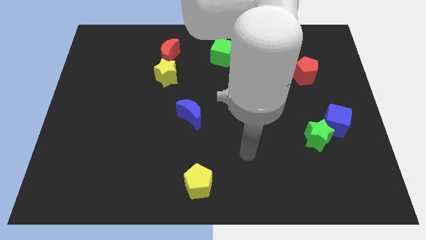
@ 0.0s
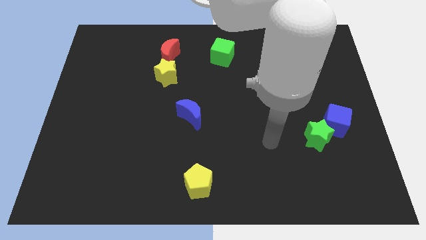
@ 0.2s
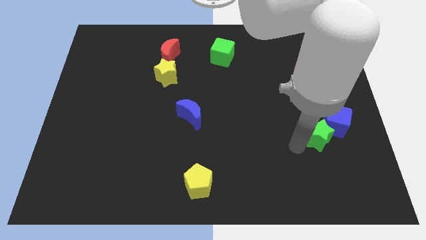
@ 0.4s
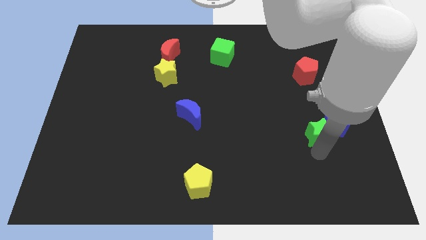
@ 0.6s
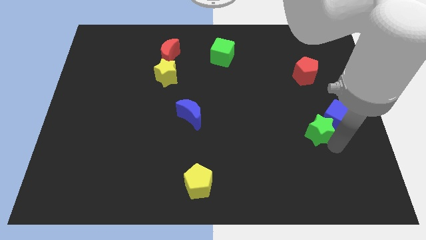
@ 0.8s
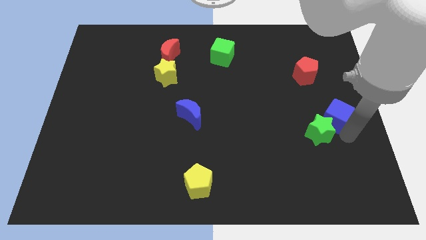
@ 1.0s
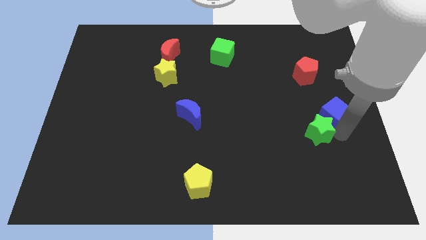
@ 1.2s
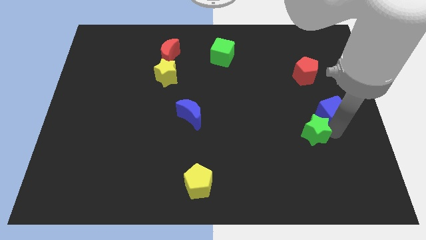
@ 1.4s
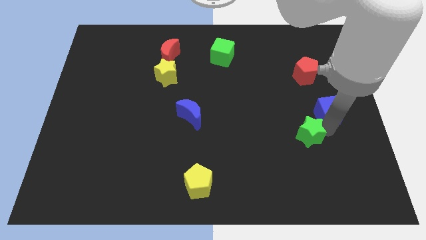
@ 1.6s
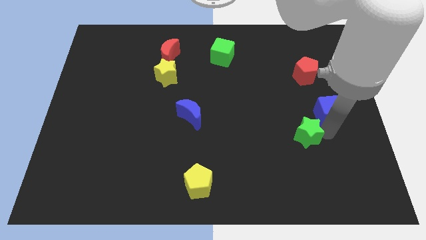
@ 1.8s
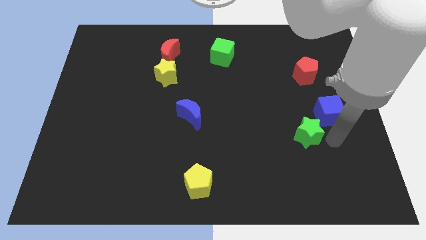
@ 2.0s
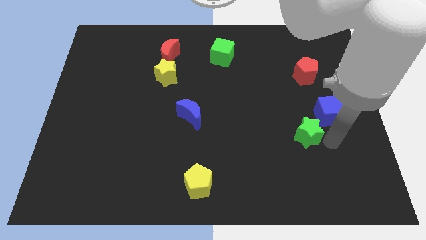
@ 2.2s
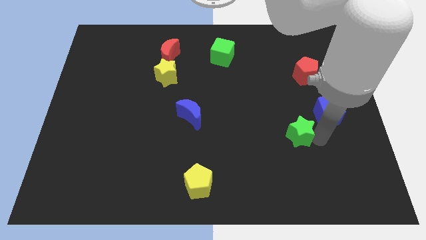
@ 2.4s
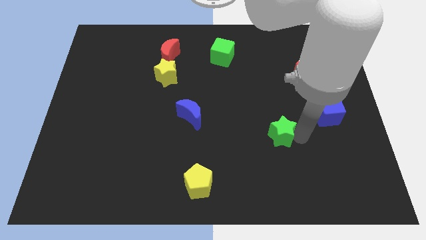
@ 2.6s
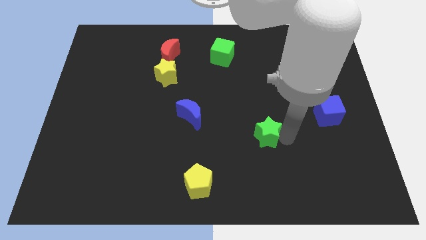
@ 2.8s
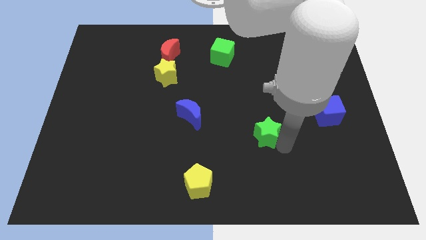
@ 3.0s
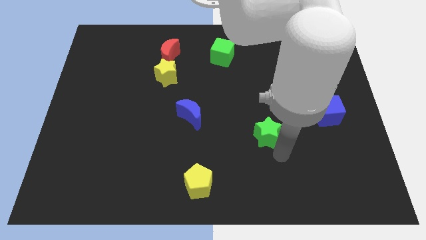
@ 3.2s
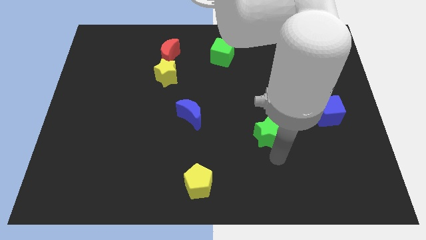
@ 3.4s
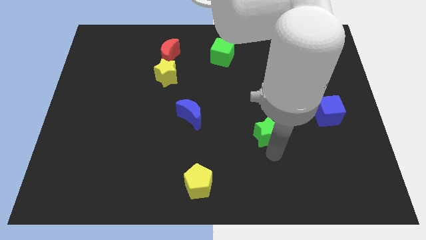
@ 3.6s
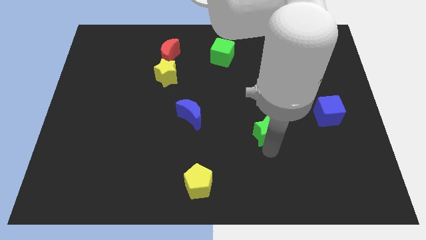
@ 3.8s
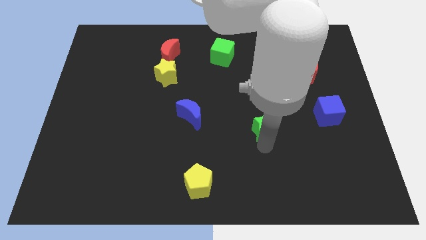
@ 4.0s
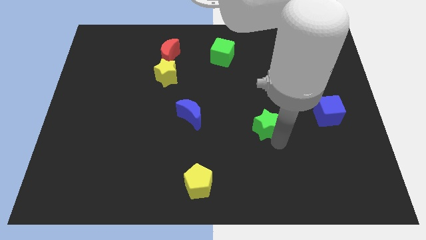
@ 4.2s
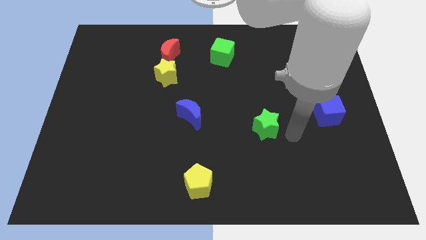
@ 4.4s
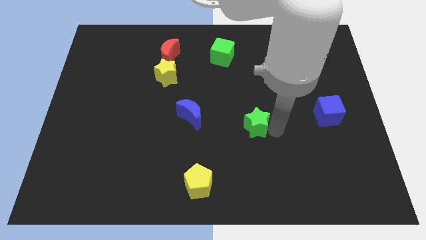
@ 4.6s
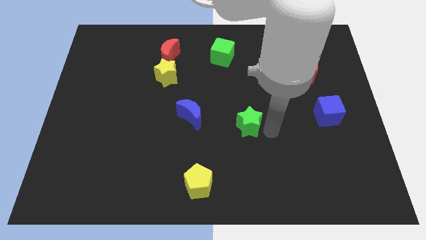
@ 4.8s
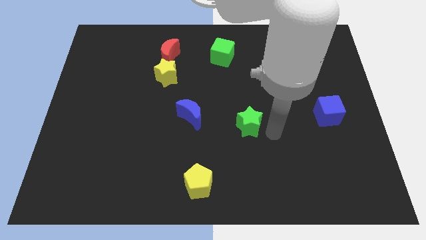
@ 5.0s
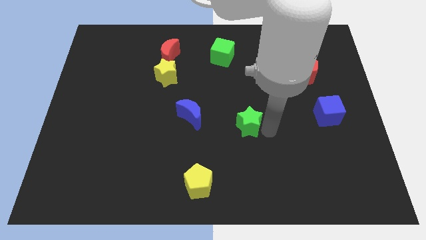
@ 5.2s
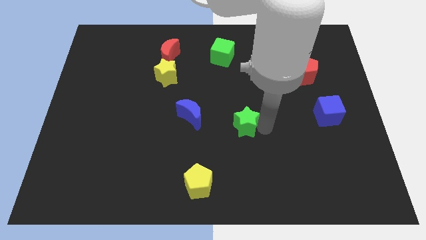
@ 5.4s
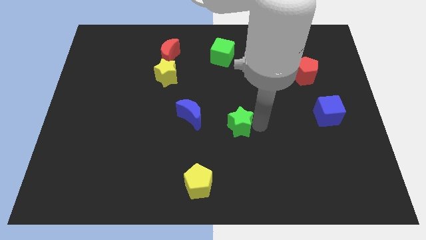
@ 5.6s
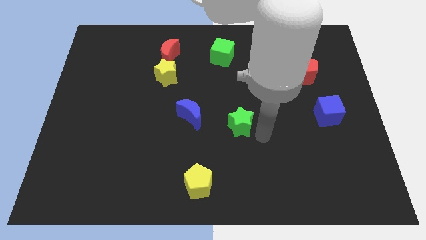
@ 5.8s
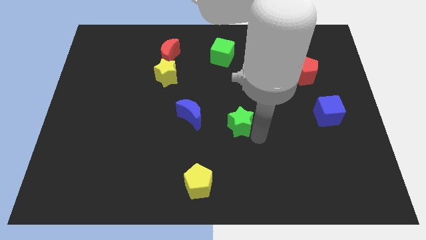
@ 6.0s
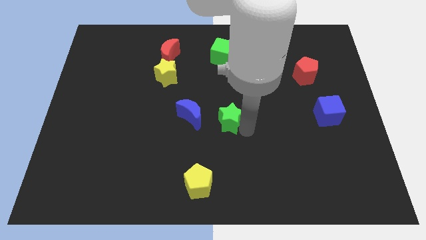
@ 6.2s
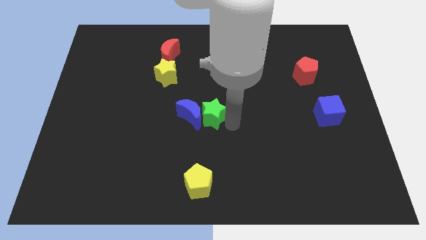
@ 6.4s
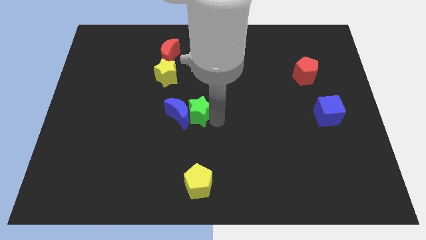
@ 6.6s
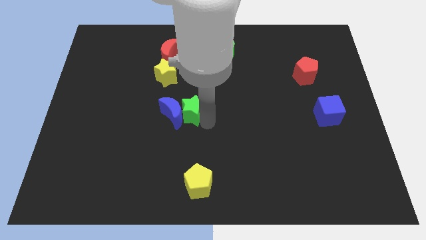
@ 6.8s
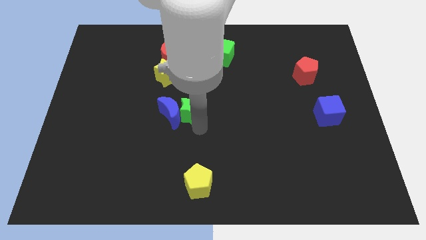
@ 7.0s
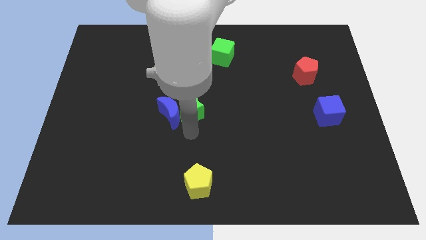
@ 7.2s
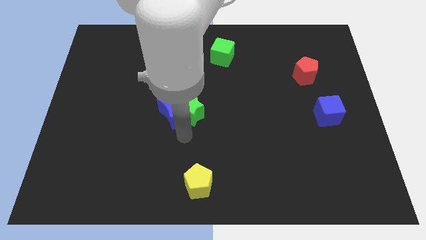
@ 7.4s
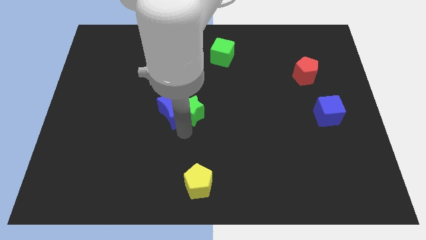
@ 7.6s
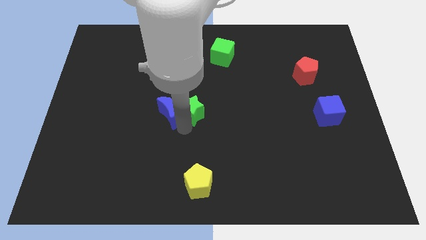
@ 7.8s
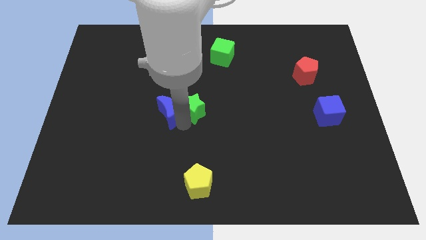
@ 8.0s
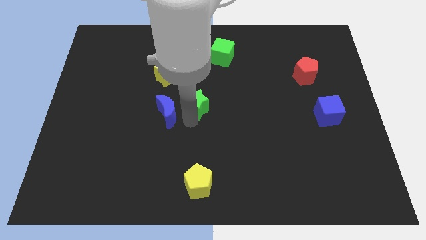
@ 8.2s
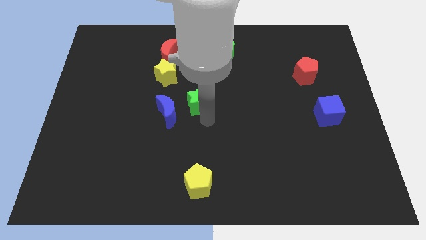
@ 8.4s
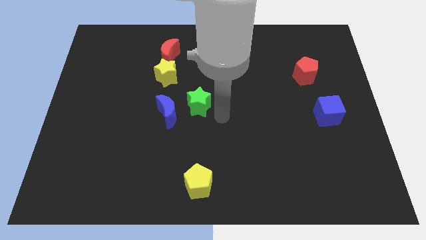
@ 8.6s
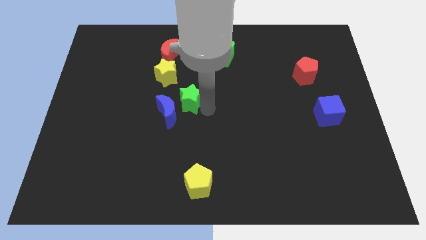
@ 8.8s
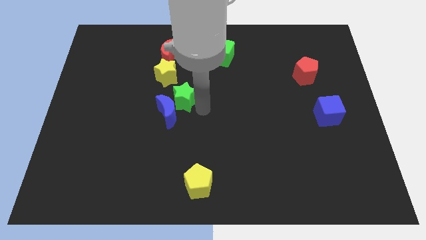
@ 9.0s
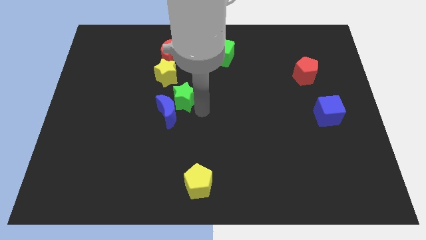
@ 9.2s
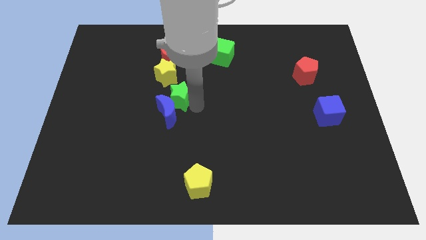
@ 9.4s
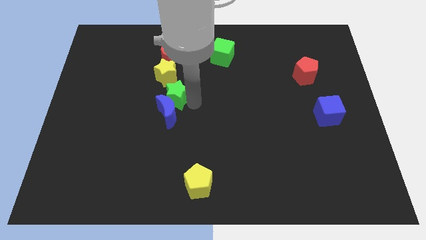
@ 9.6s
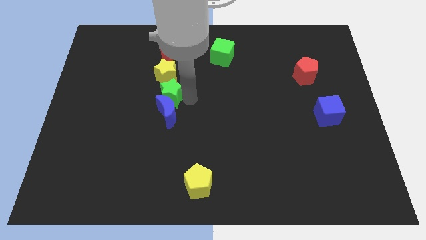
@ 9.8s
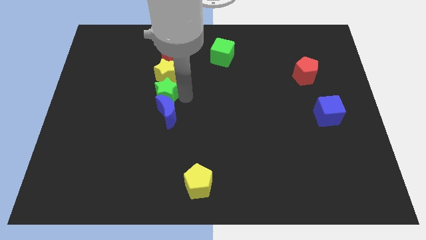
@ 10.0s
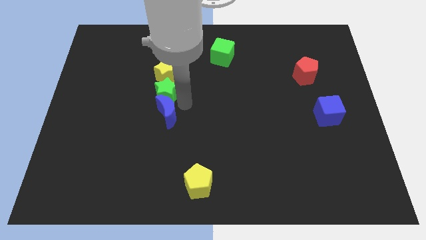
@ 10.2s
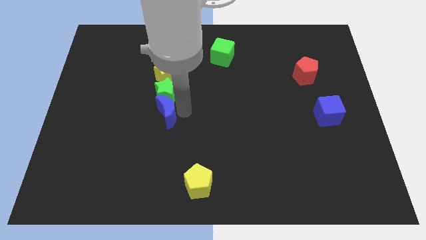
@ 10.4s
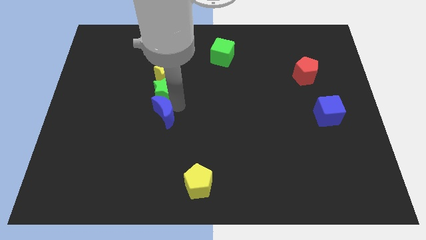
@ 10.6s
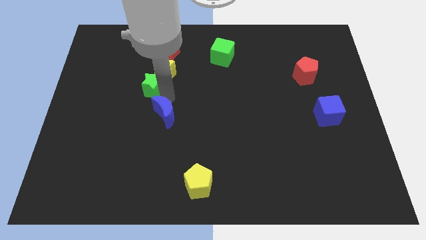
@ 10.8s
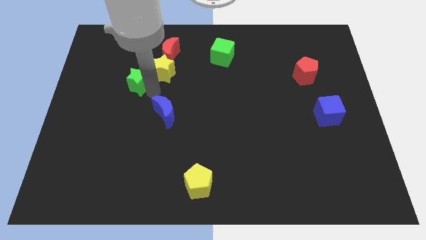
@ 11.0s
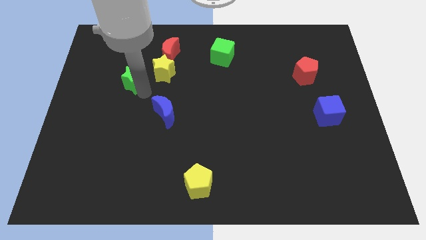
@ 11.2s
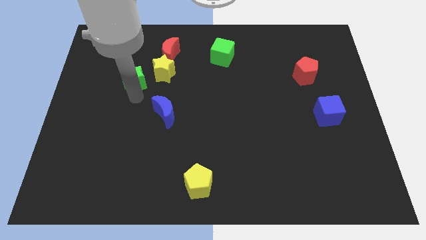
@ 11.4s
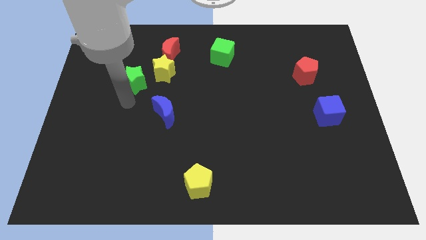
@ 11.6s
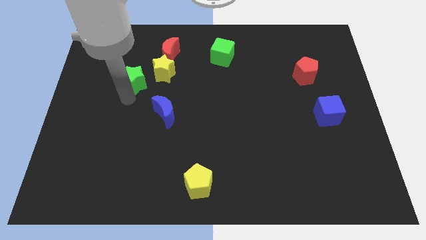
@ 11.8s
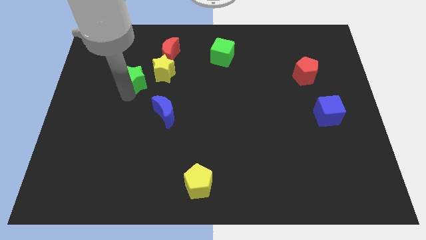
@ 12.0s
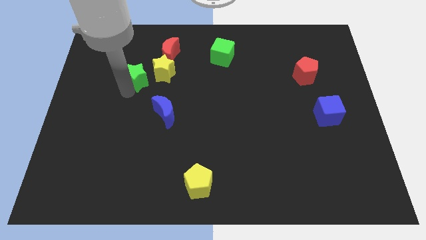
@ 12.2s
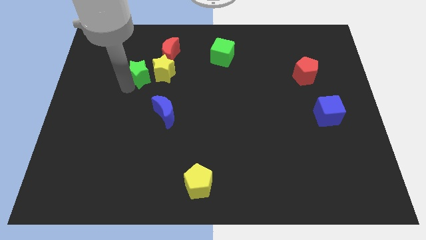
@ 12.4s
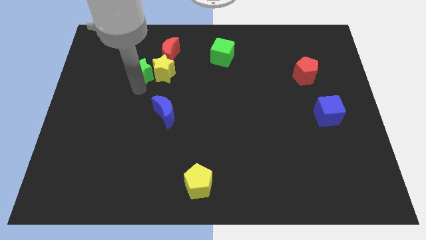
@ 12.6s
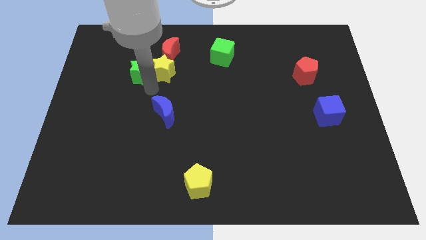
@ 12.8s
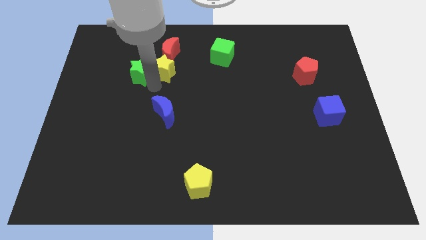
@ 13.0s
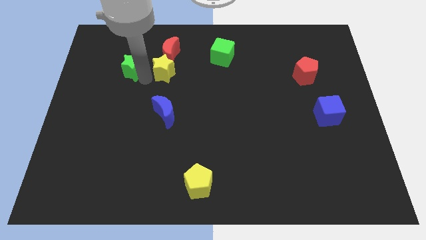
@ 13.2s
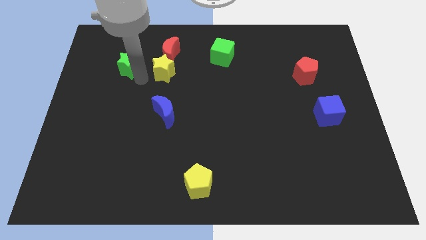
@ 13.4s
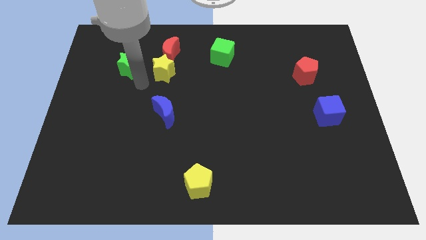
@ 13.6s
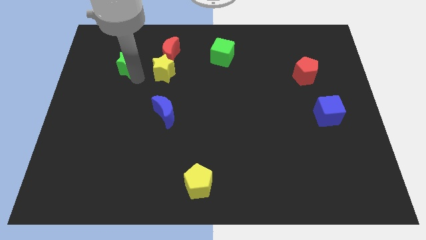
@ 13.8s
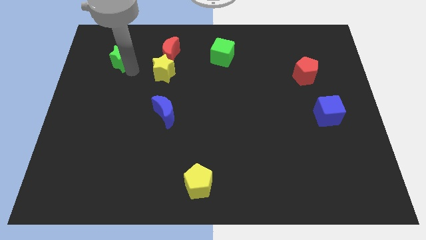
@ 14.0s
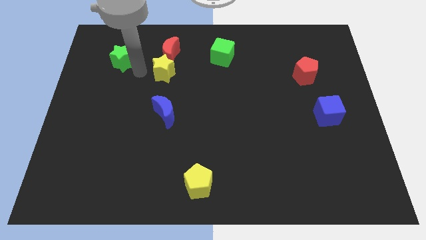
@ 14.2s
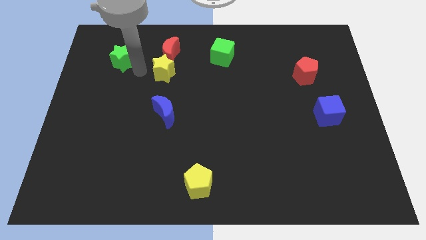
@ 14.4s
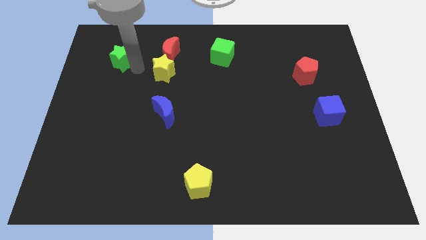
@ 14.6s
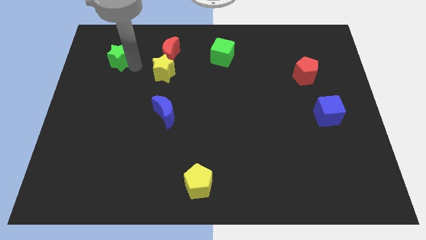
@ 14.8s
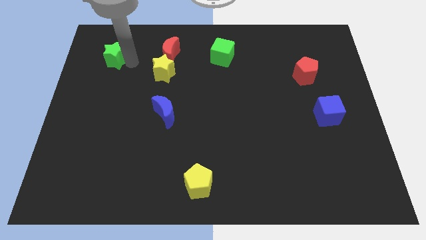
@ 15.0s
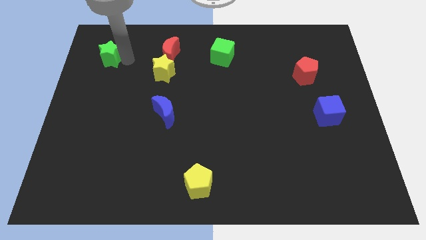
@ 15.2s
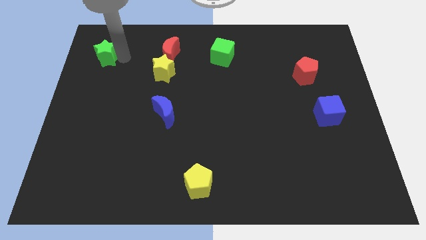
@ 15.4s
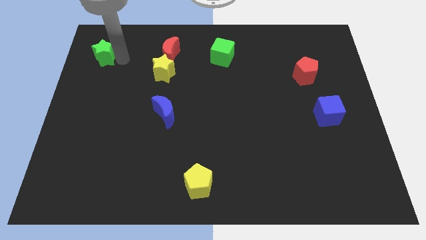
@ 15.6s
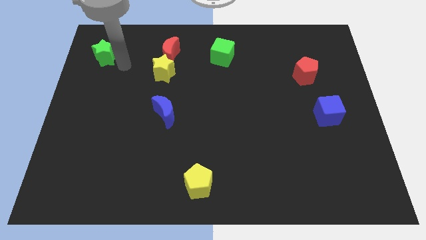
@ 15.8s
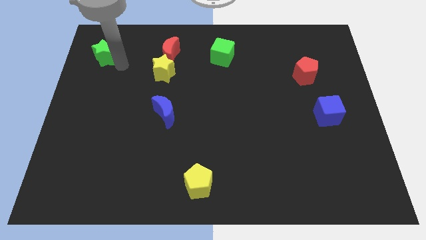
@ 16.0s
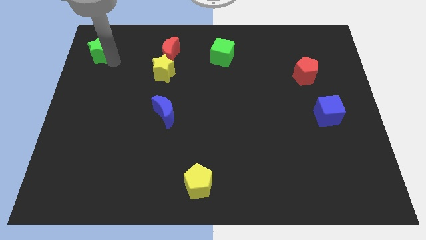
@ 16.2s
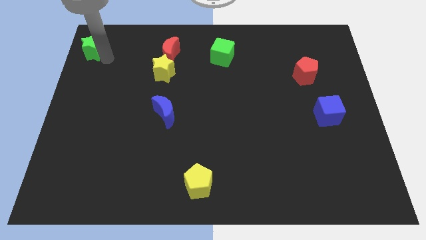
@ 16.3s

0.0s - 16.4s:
push the green star to the upper left corner
